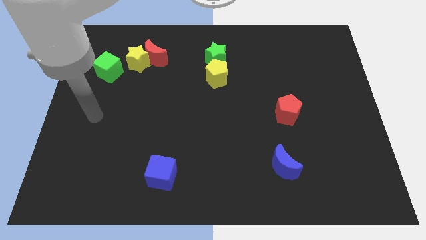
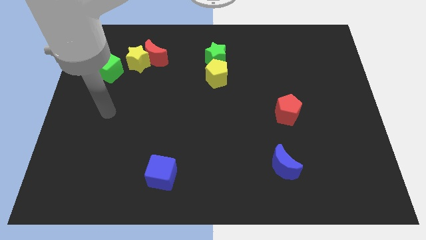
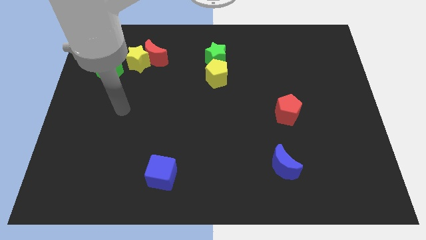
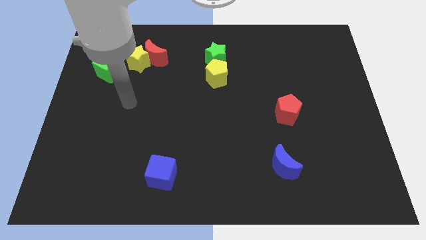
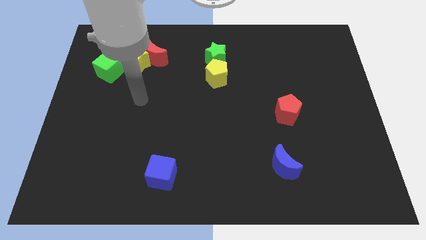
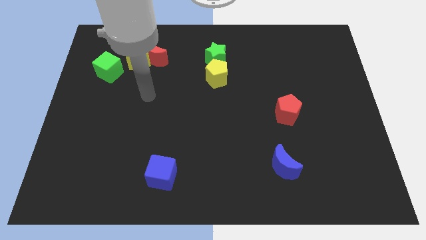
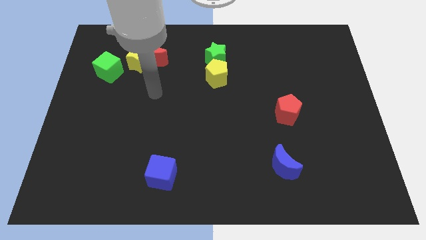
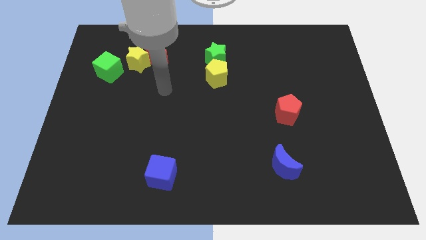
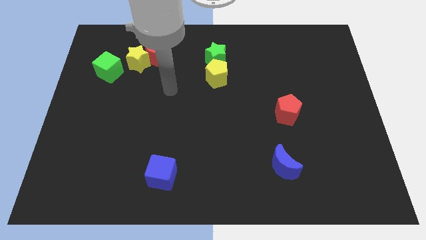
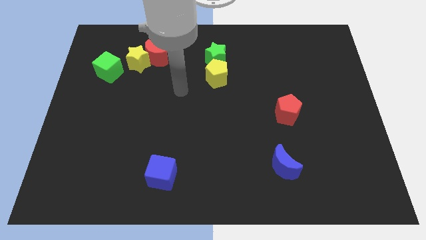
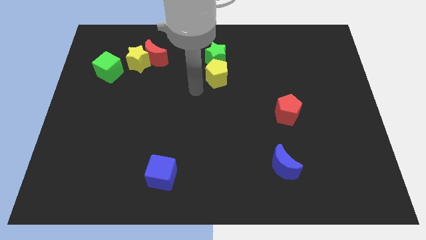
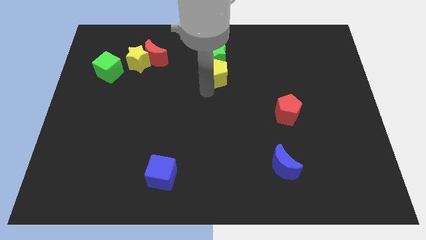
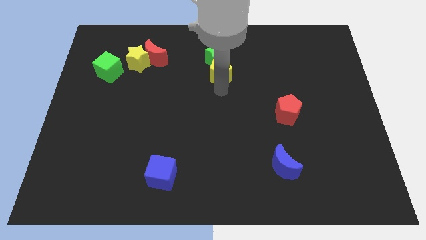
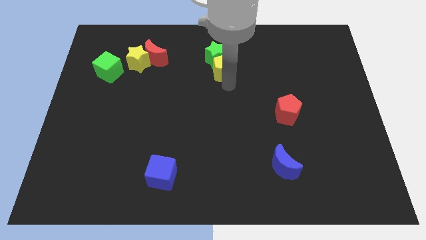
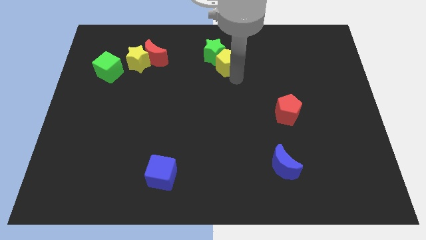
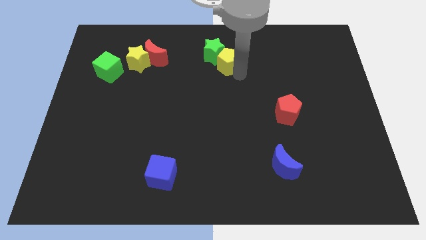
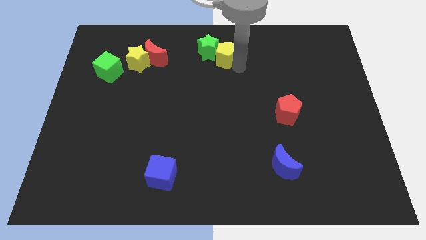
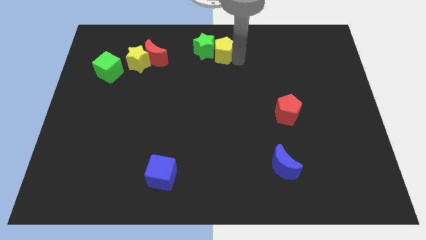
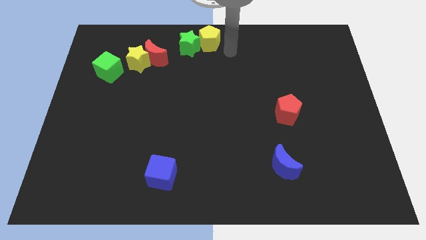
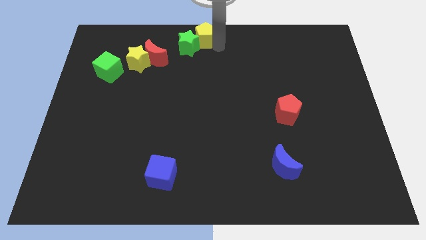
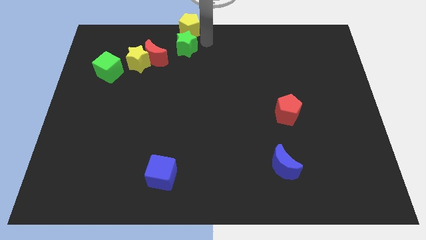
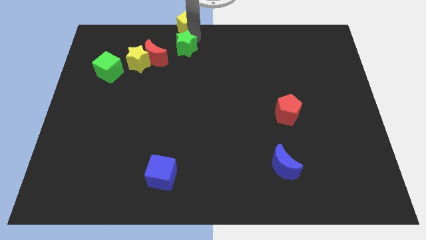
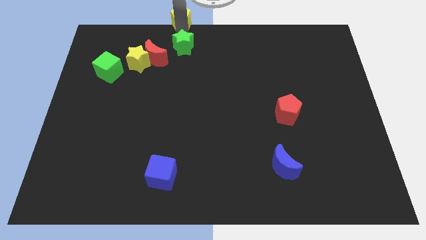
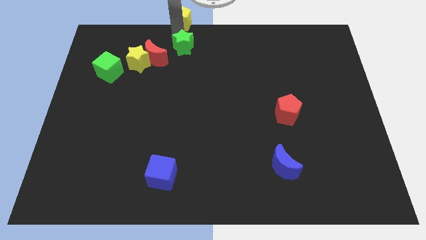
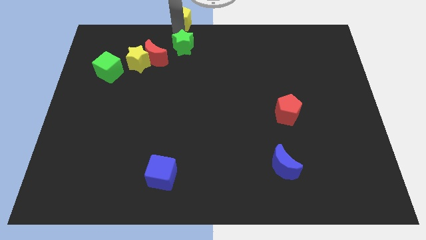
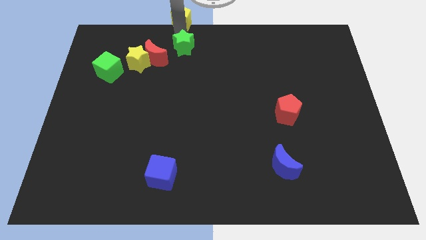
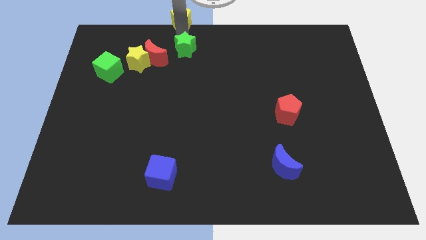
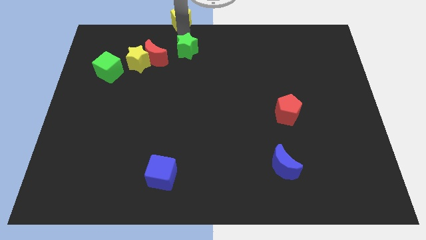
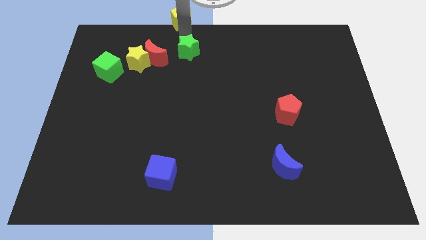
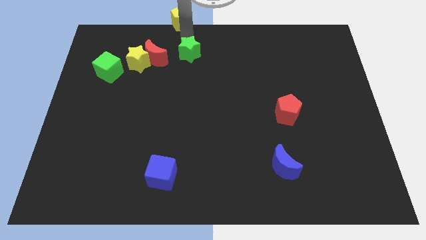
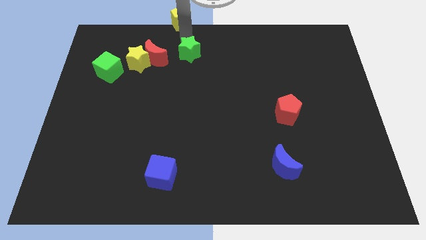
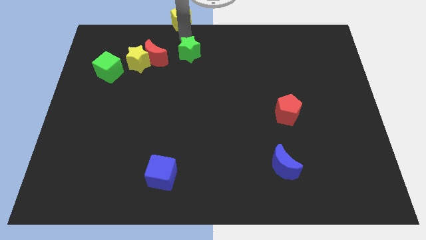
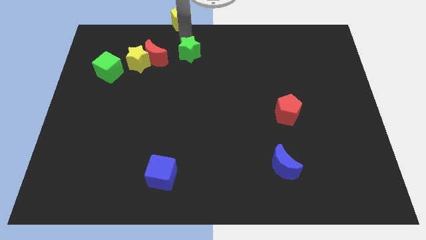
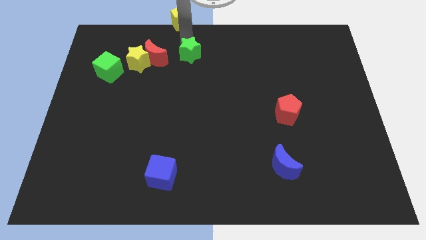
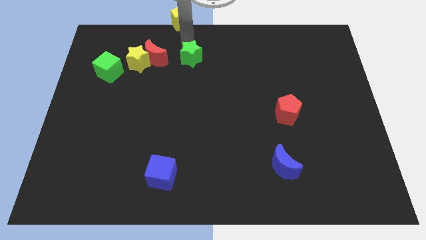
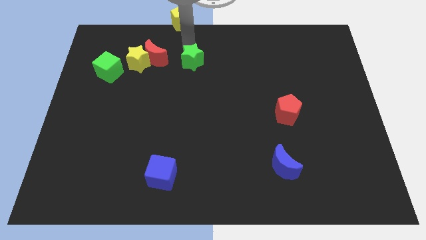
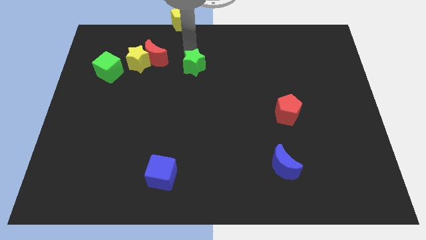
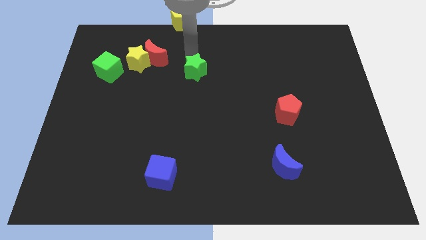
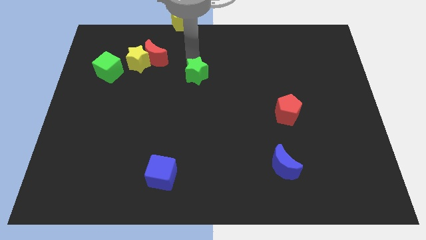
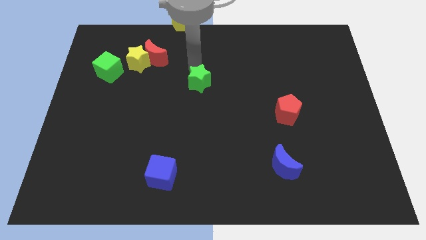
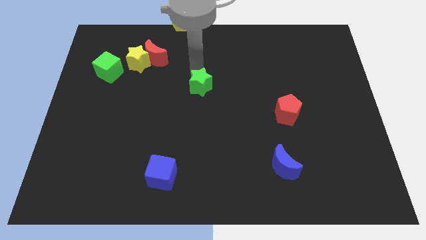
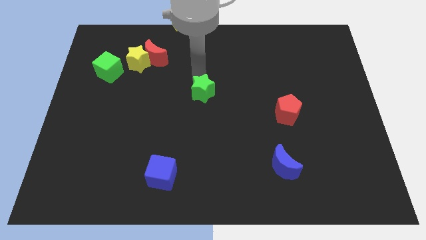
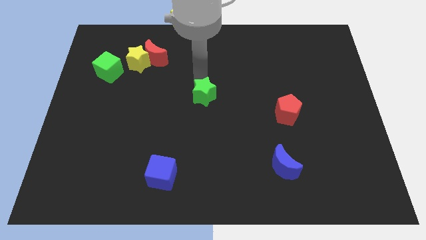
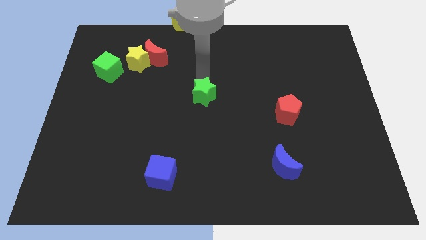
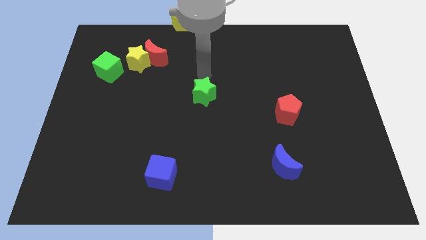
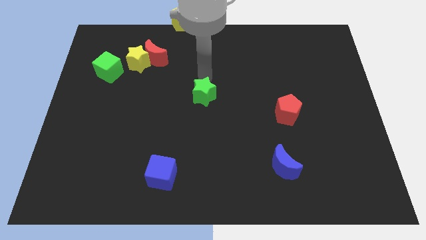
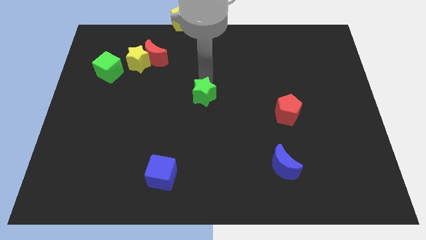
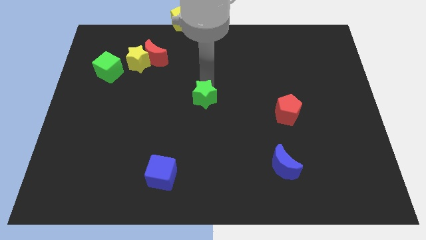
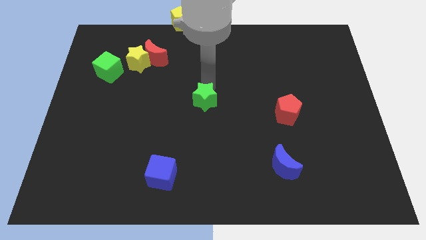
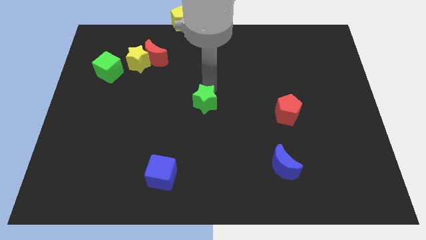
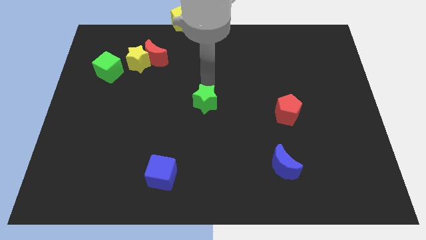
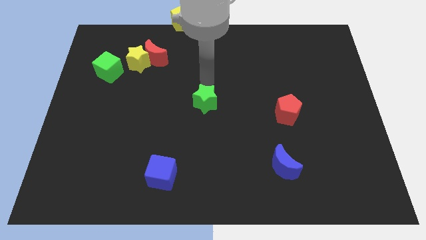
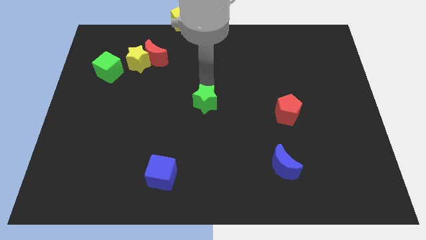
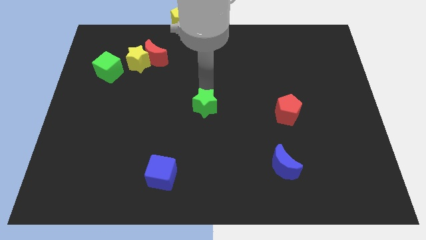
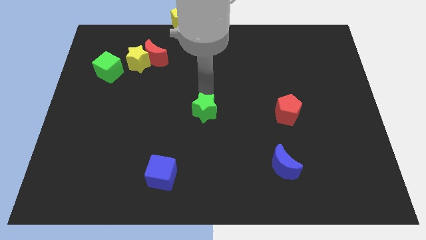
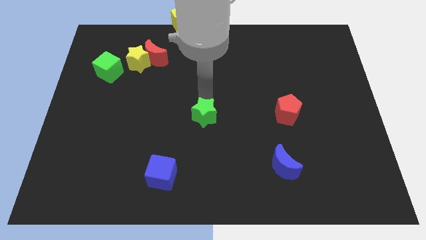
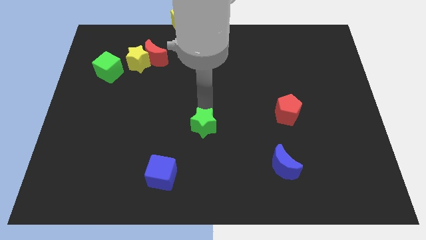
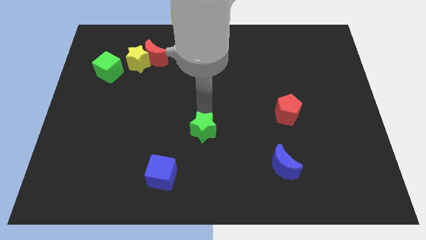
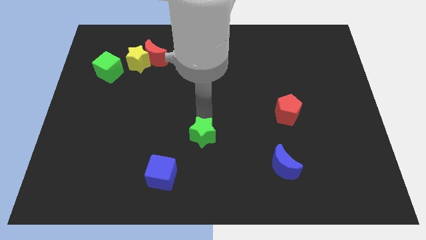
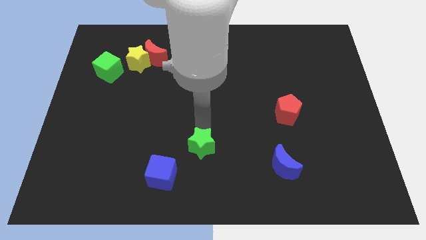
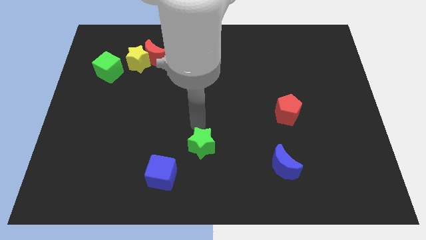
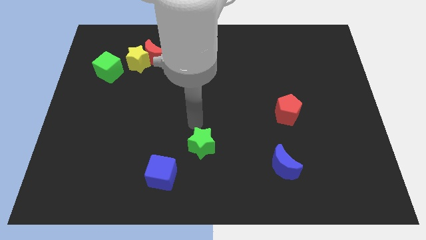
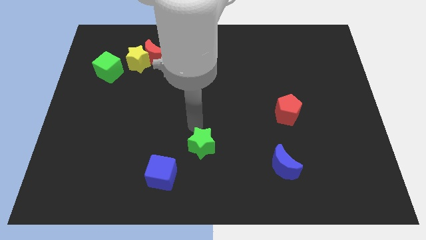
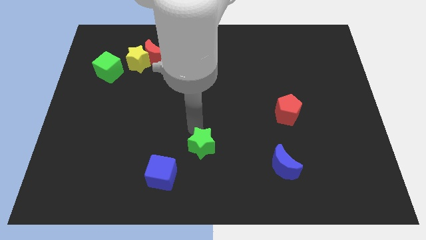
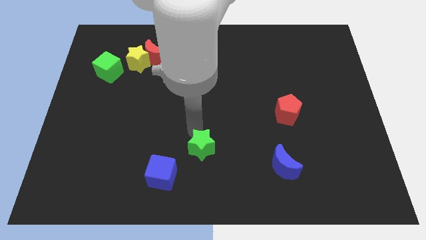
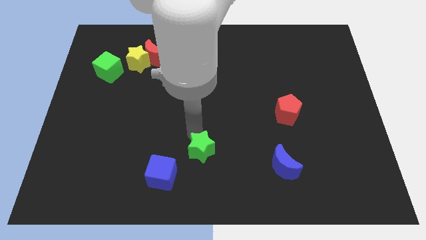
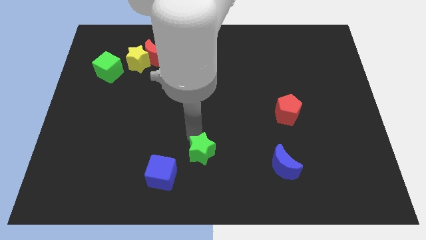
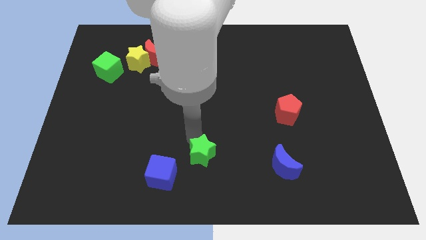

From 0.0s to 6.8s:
slide the green star to the bottom
